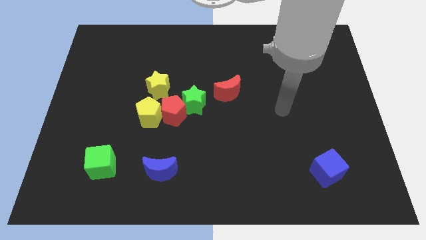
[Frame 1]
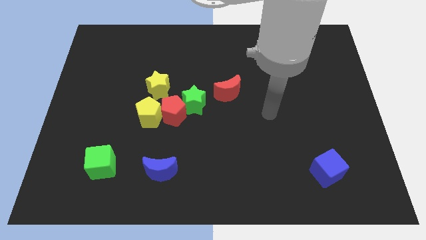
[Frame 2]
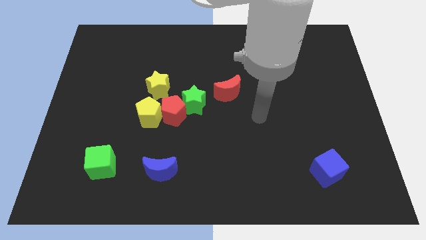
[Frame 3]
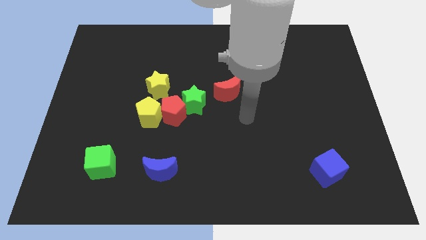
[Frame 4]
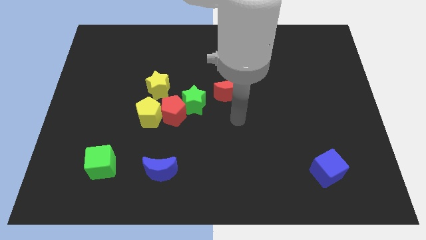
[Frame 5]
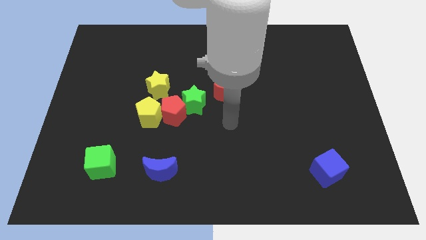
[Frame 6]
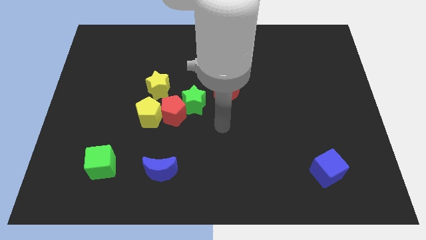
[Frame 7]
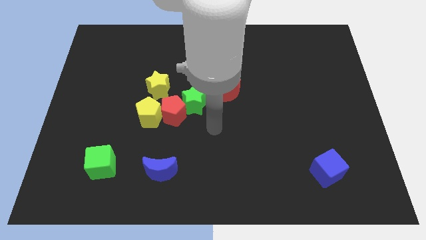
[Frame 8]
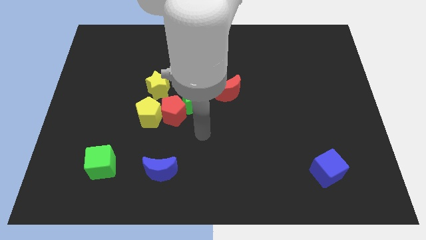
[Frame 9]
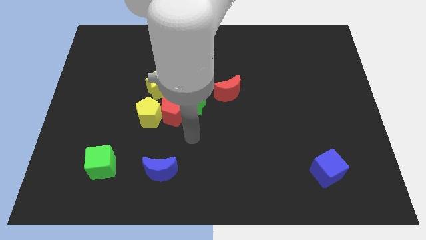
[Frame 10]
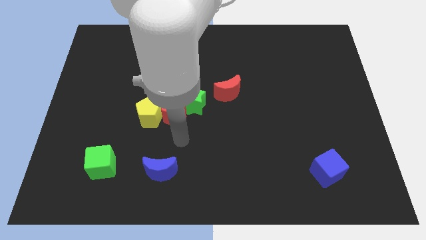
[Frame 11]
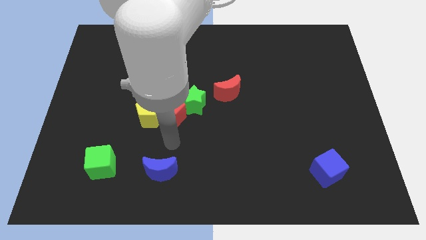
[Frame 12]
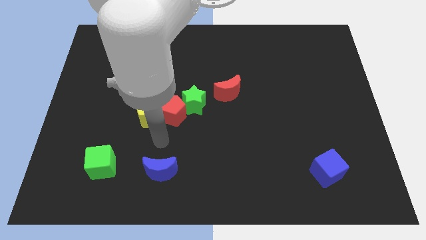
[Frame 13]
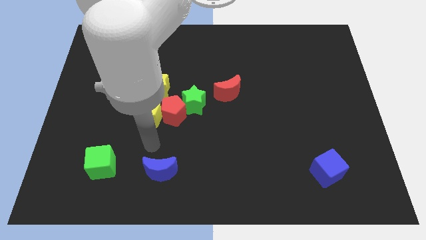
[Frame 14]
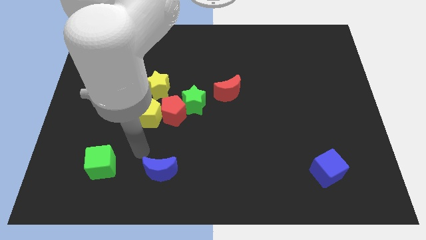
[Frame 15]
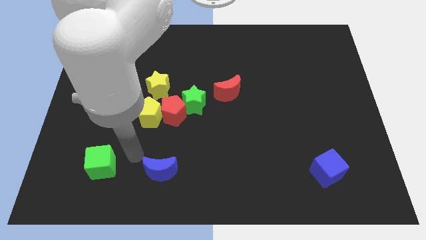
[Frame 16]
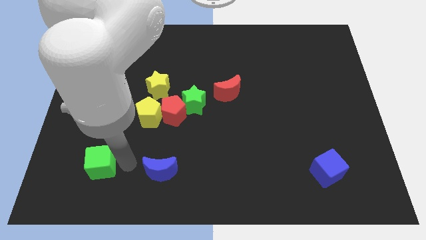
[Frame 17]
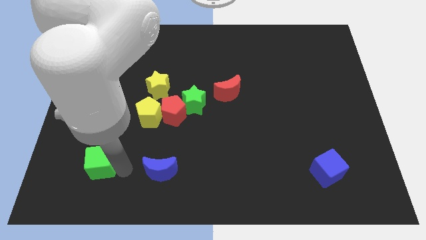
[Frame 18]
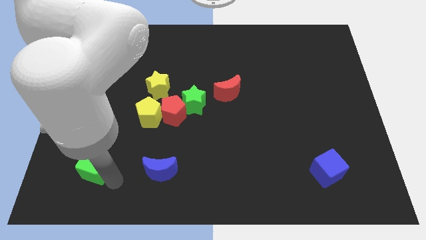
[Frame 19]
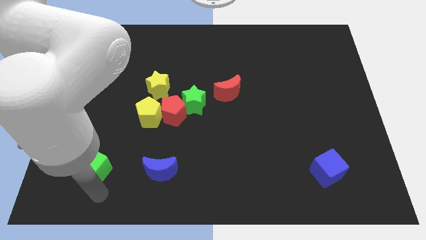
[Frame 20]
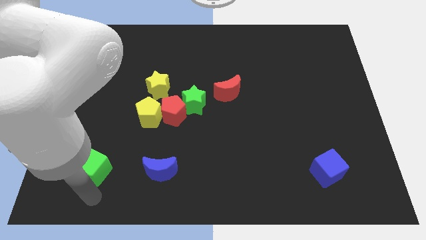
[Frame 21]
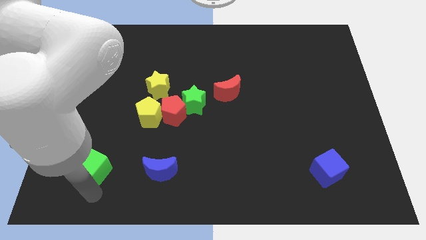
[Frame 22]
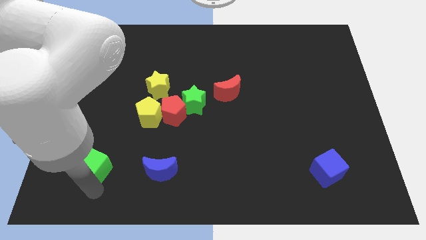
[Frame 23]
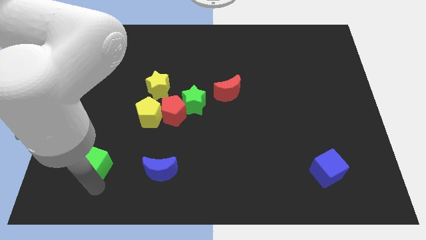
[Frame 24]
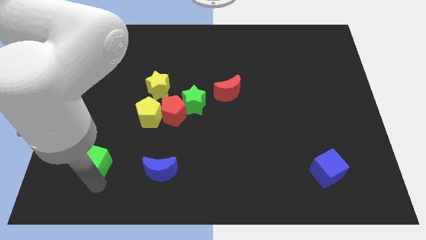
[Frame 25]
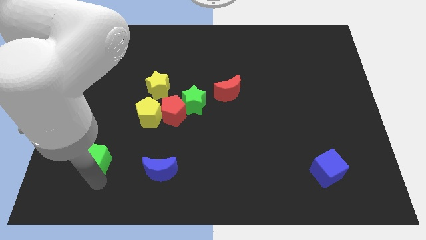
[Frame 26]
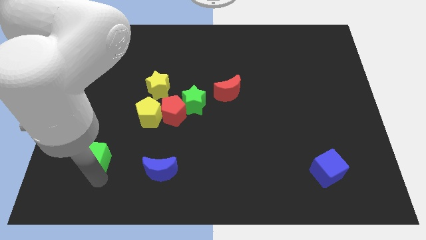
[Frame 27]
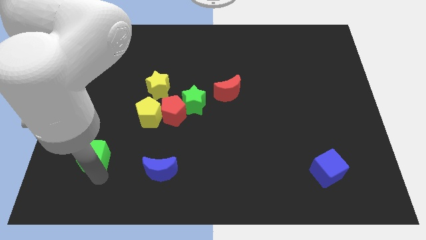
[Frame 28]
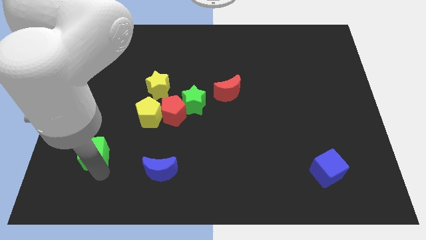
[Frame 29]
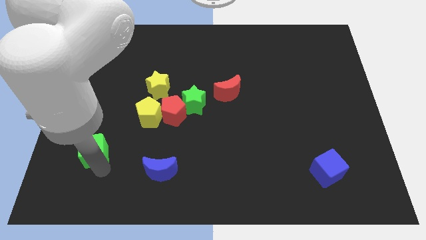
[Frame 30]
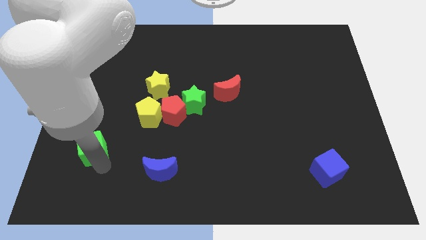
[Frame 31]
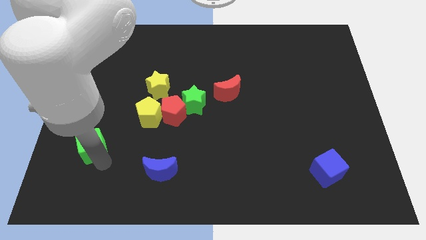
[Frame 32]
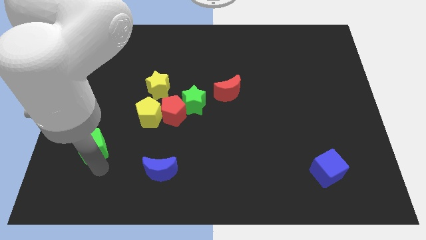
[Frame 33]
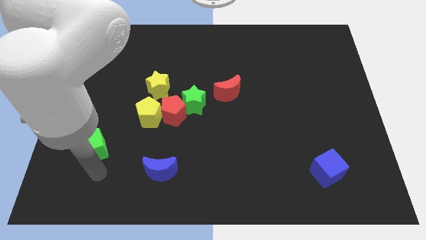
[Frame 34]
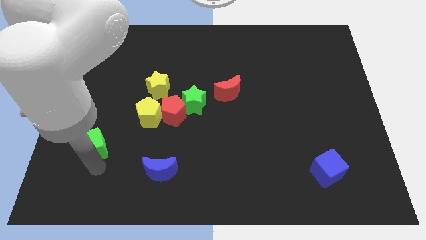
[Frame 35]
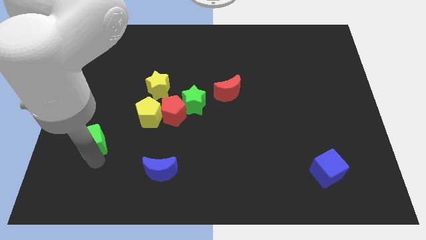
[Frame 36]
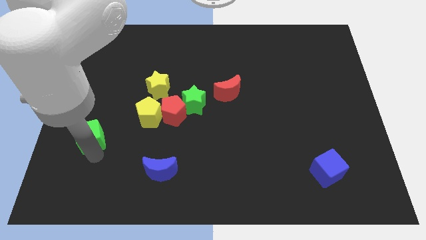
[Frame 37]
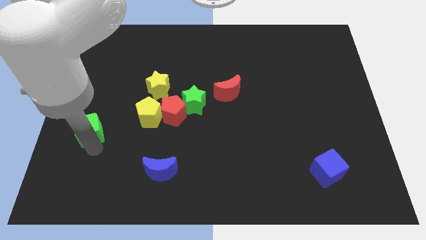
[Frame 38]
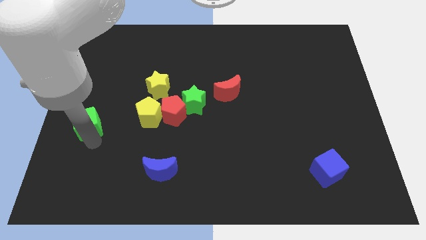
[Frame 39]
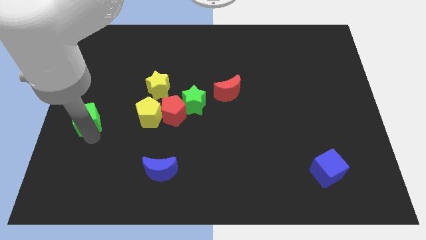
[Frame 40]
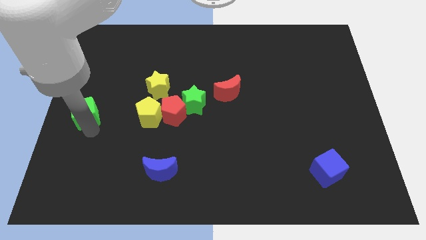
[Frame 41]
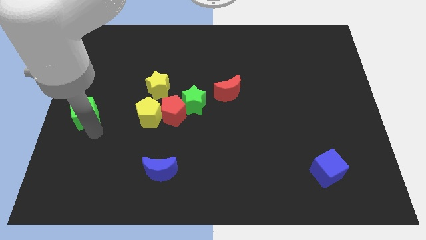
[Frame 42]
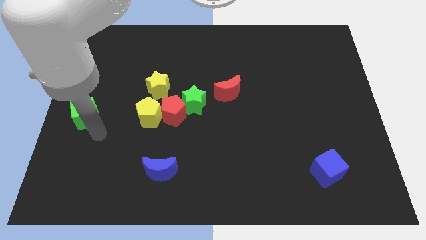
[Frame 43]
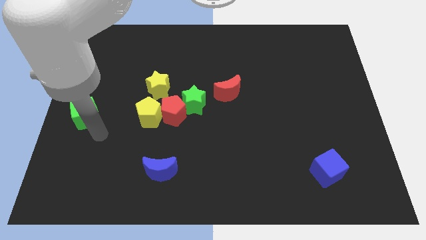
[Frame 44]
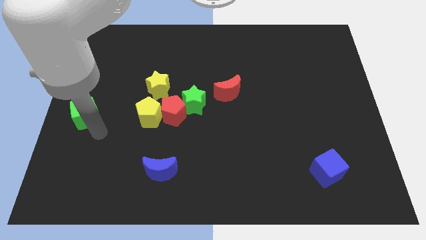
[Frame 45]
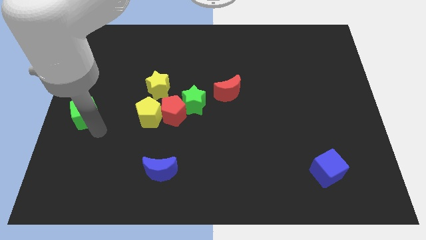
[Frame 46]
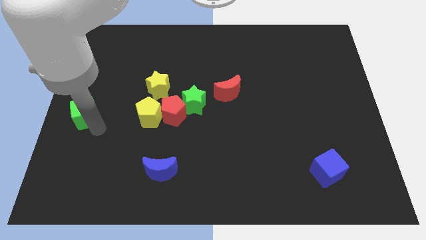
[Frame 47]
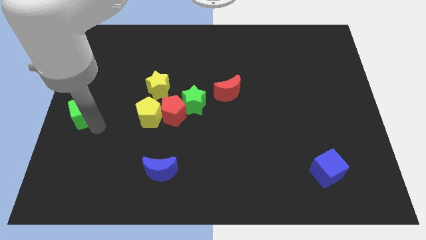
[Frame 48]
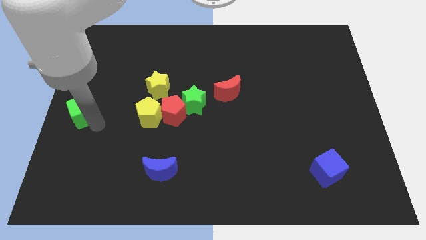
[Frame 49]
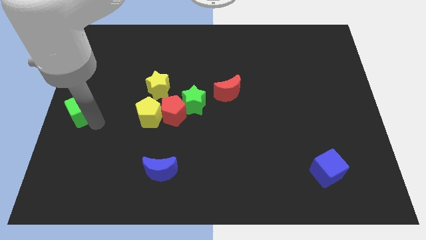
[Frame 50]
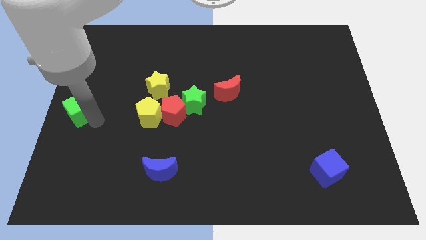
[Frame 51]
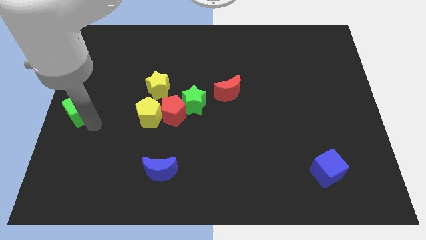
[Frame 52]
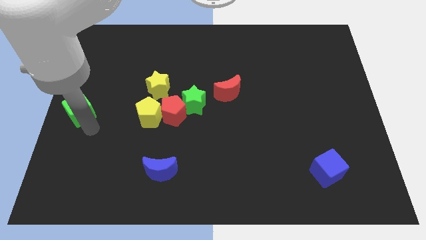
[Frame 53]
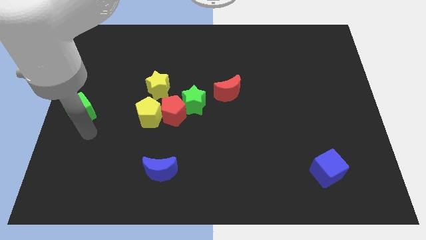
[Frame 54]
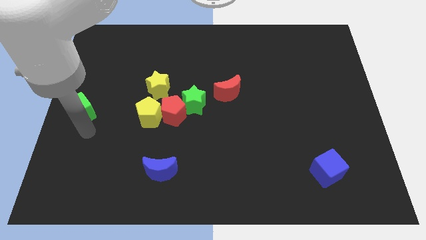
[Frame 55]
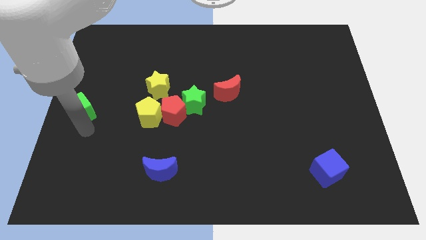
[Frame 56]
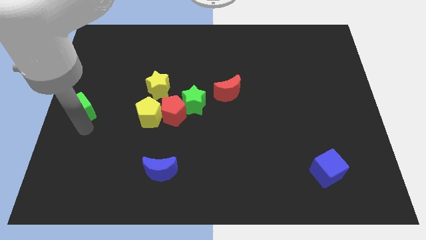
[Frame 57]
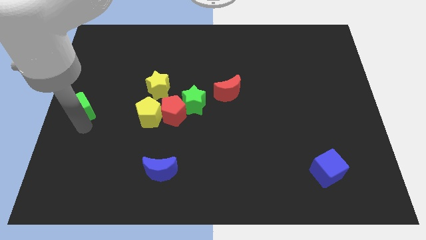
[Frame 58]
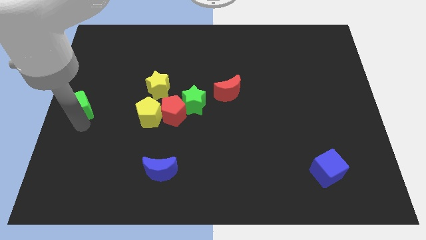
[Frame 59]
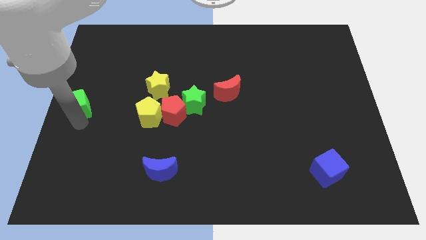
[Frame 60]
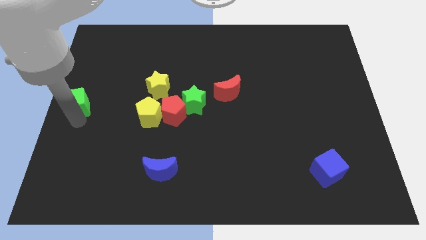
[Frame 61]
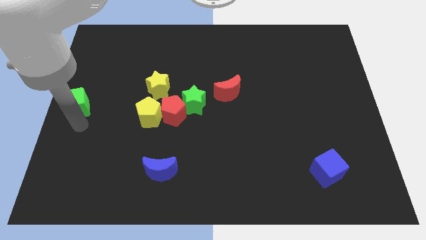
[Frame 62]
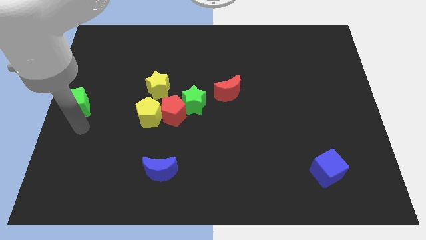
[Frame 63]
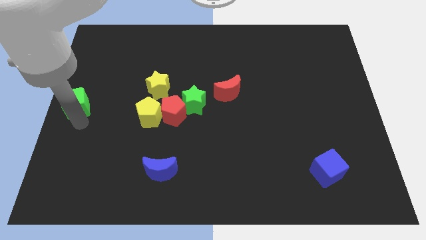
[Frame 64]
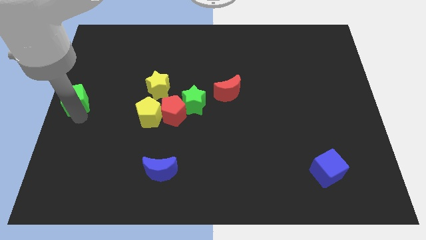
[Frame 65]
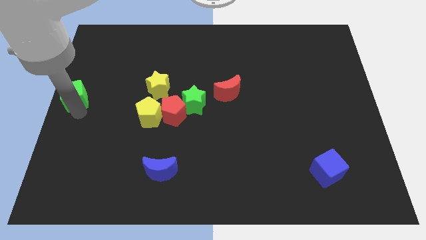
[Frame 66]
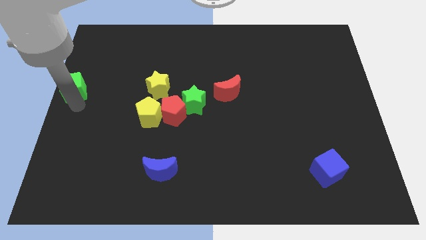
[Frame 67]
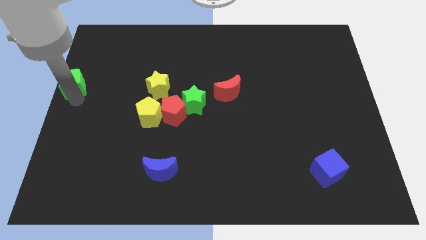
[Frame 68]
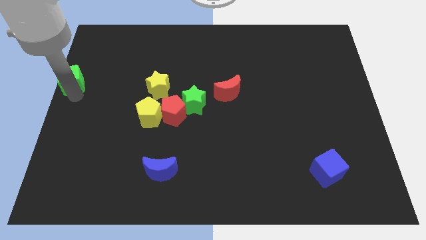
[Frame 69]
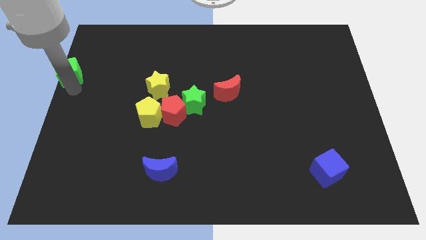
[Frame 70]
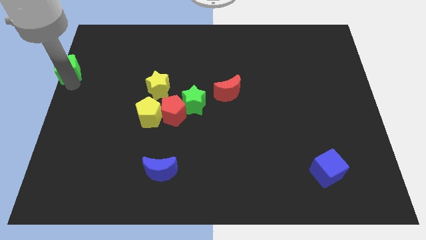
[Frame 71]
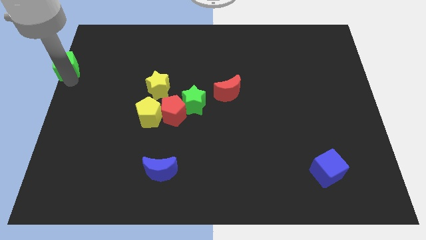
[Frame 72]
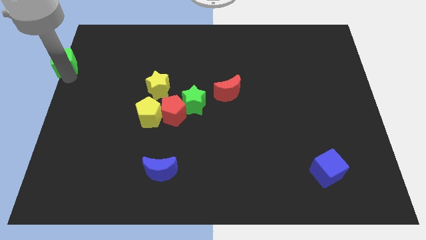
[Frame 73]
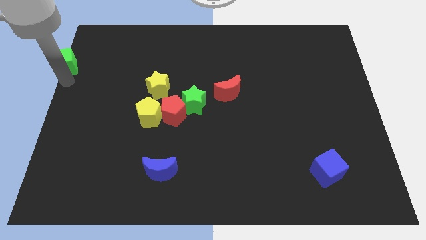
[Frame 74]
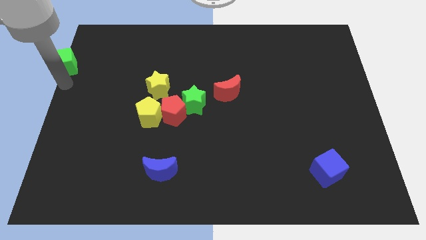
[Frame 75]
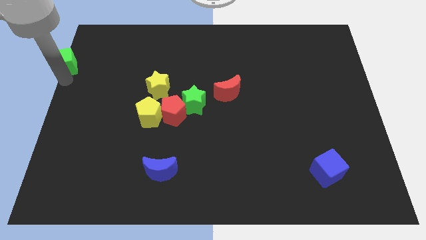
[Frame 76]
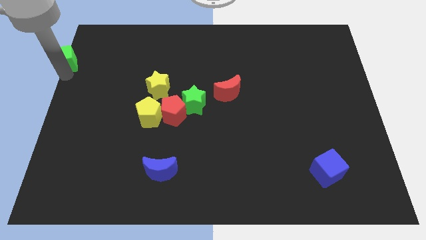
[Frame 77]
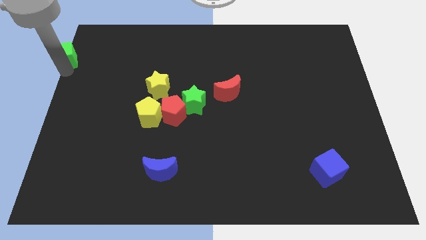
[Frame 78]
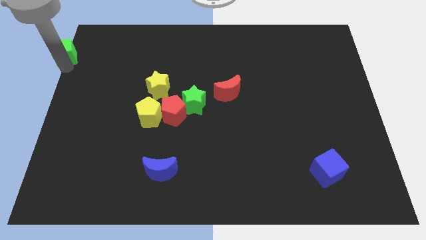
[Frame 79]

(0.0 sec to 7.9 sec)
move the green cube to the upper left corner
